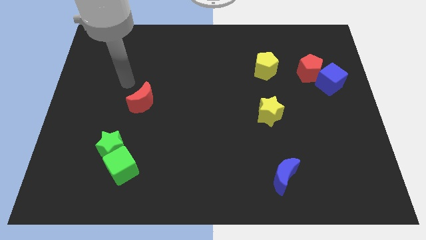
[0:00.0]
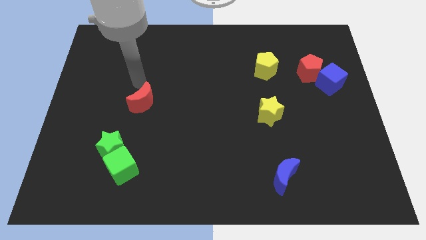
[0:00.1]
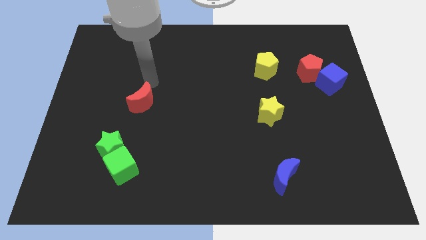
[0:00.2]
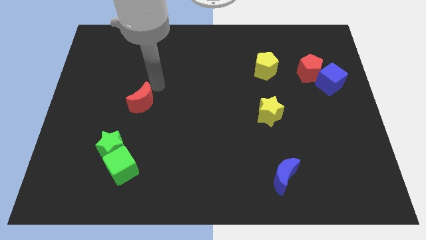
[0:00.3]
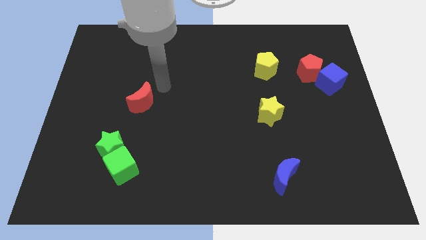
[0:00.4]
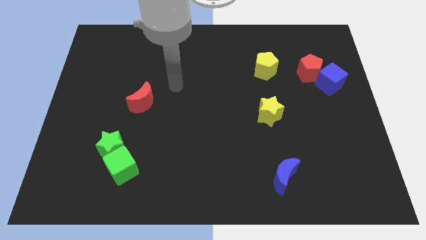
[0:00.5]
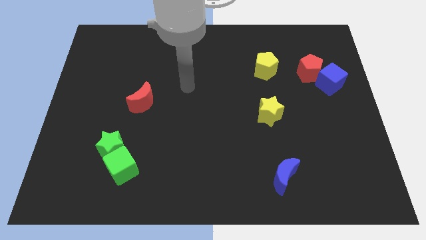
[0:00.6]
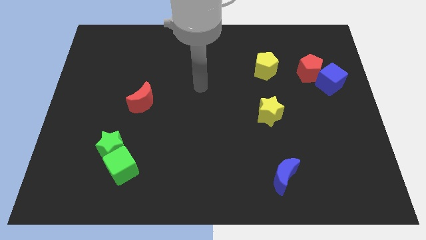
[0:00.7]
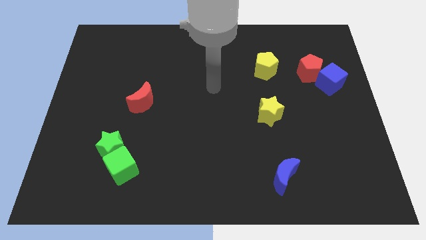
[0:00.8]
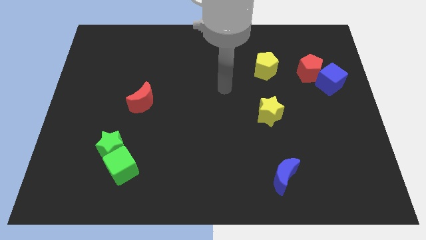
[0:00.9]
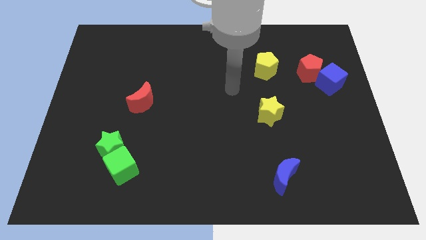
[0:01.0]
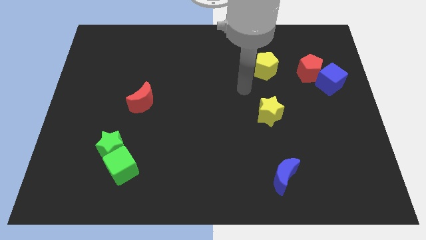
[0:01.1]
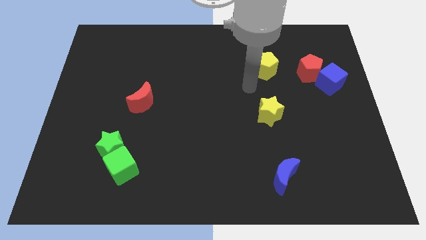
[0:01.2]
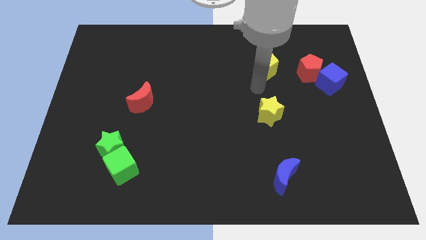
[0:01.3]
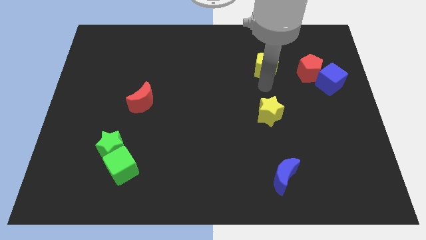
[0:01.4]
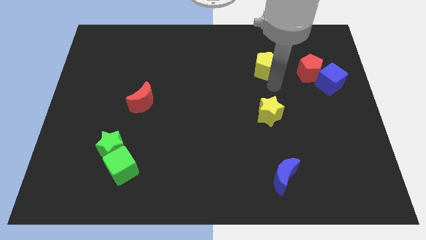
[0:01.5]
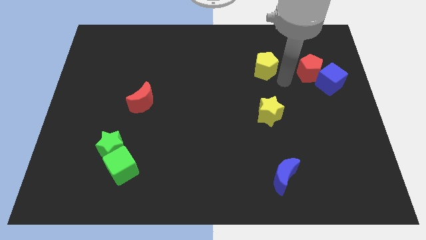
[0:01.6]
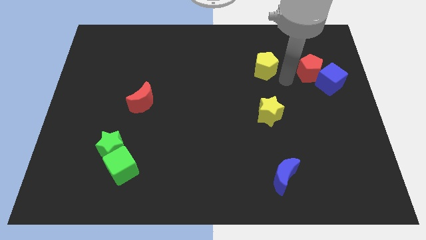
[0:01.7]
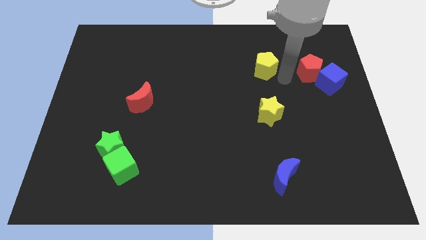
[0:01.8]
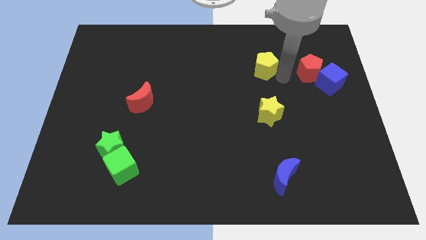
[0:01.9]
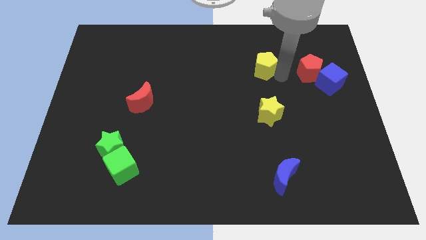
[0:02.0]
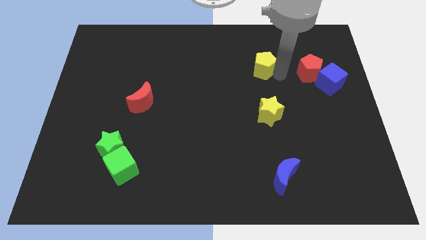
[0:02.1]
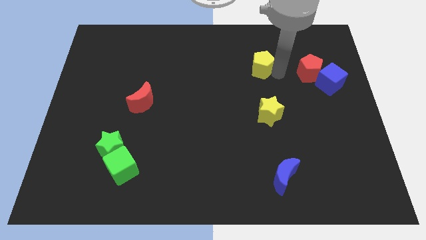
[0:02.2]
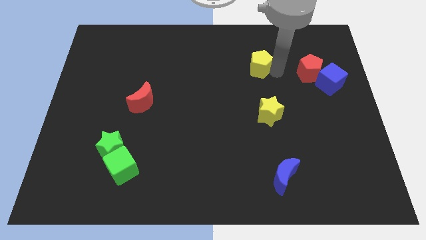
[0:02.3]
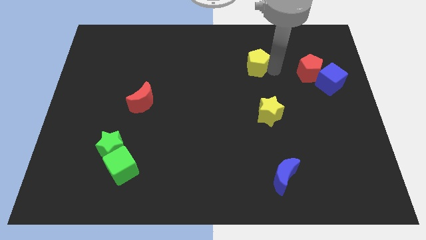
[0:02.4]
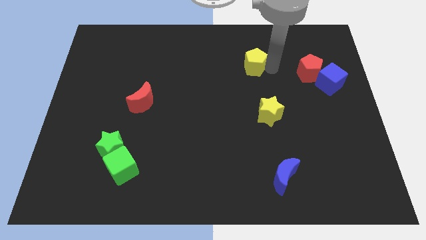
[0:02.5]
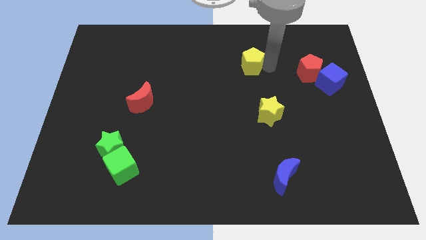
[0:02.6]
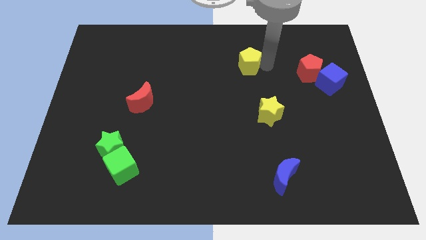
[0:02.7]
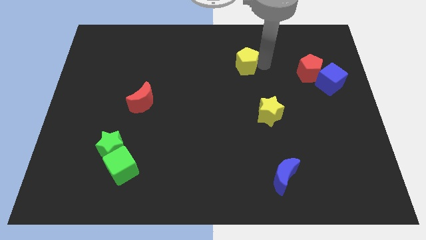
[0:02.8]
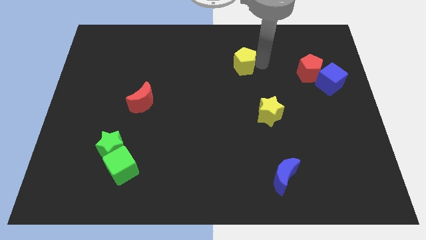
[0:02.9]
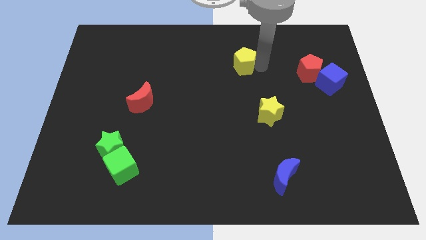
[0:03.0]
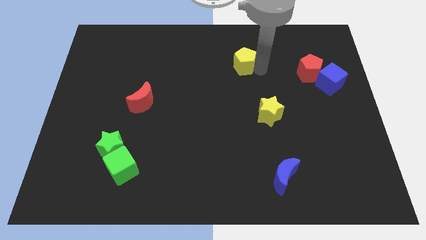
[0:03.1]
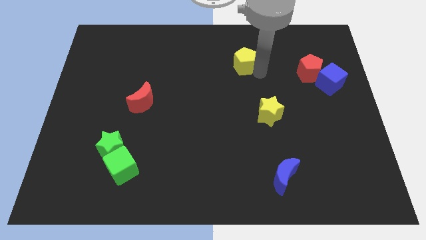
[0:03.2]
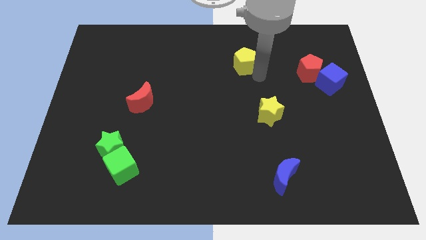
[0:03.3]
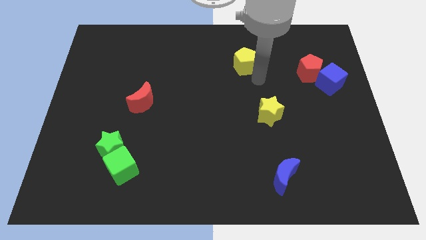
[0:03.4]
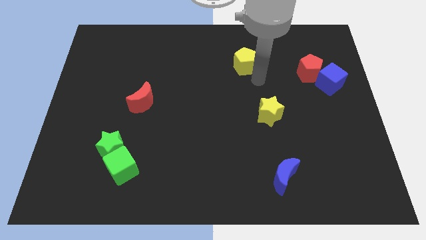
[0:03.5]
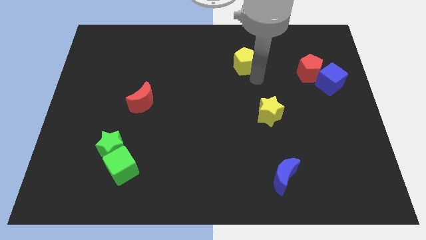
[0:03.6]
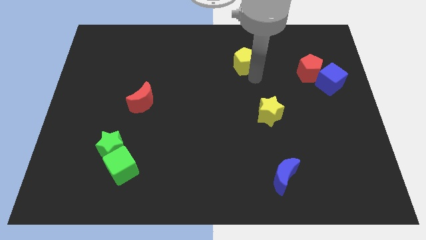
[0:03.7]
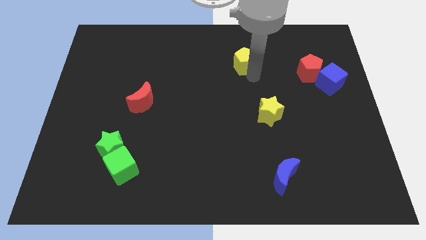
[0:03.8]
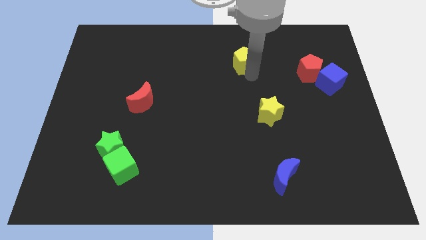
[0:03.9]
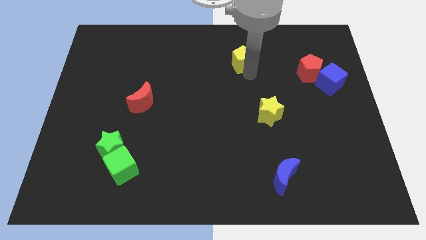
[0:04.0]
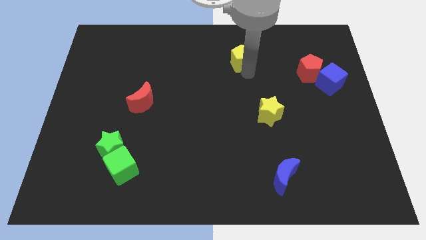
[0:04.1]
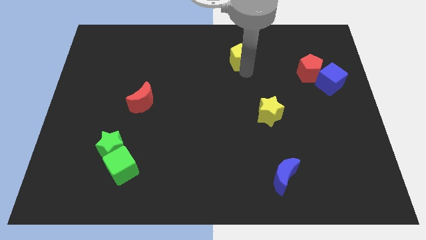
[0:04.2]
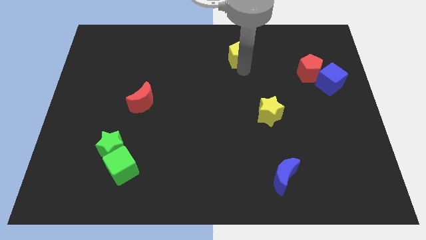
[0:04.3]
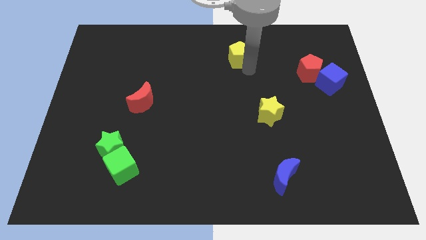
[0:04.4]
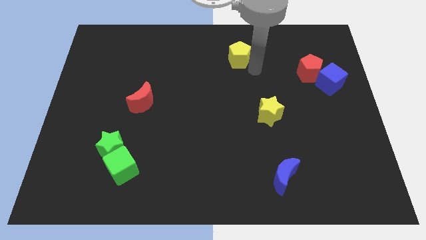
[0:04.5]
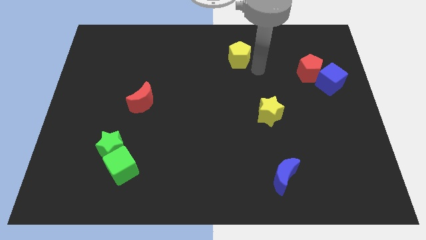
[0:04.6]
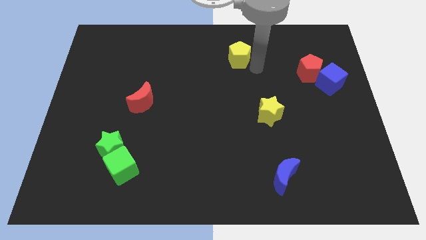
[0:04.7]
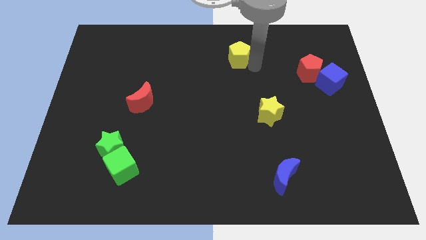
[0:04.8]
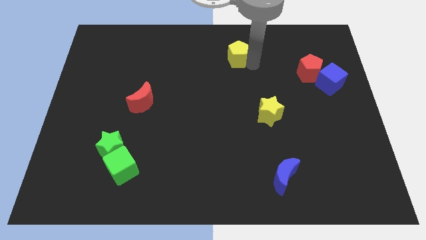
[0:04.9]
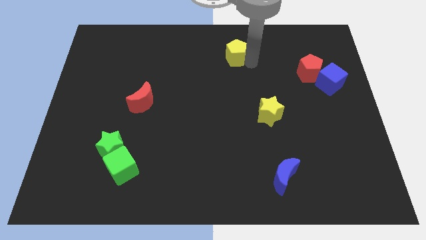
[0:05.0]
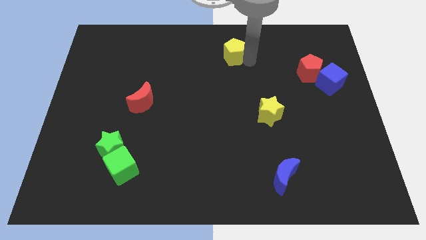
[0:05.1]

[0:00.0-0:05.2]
move the yellow pentagon to the top
